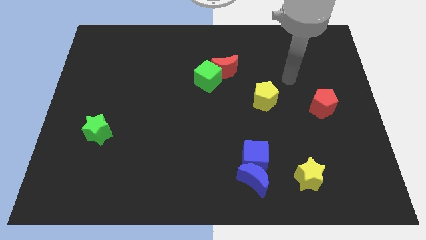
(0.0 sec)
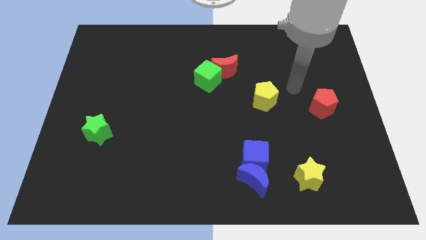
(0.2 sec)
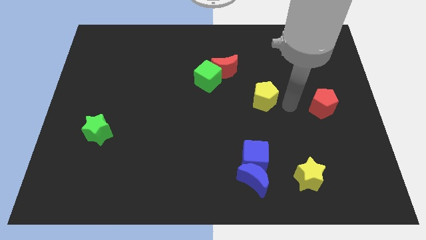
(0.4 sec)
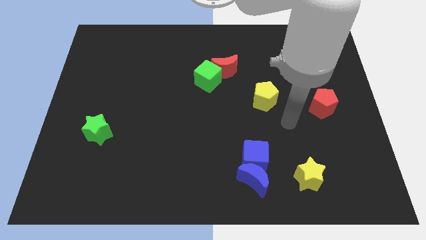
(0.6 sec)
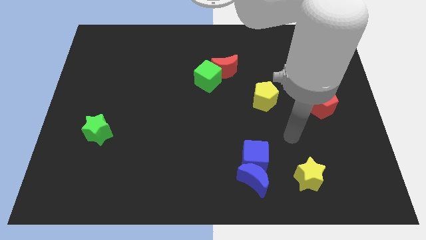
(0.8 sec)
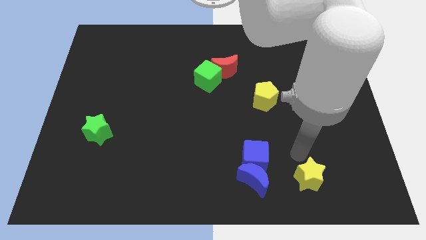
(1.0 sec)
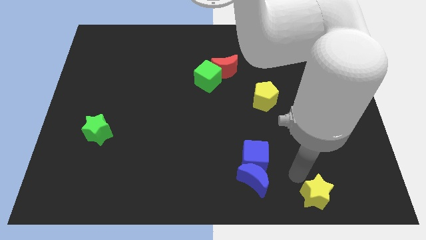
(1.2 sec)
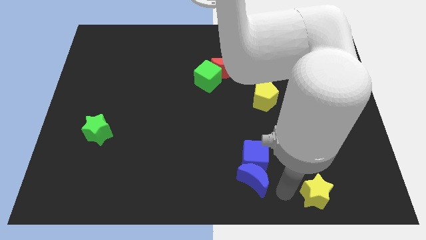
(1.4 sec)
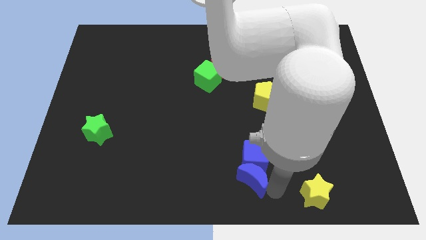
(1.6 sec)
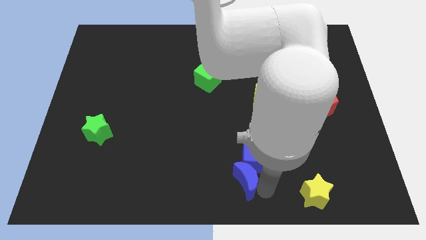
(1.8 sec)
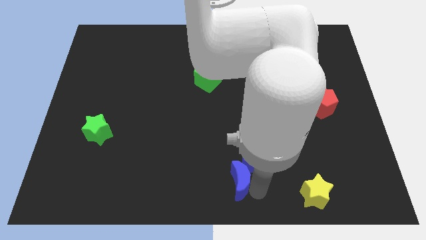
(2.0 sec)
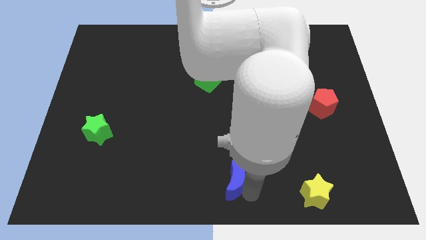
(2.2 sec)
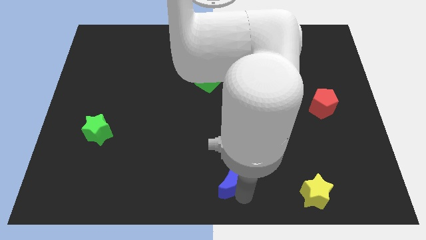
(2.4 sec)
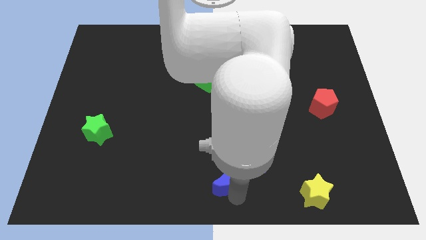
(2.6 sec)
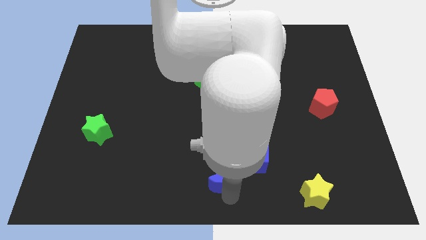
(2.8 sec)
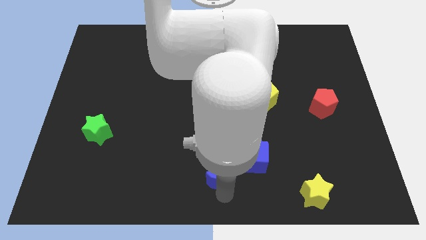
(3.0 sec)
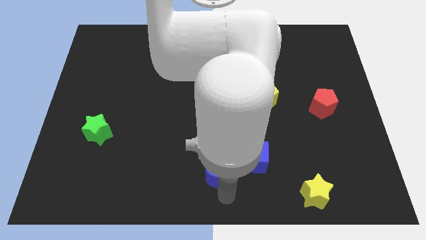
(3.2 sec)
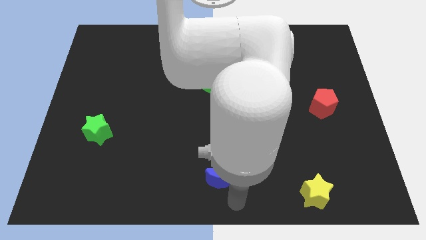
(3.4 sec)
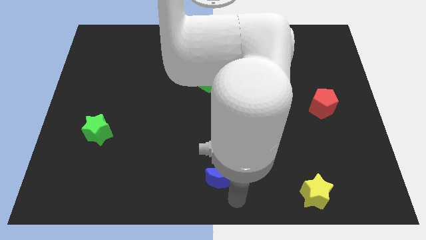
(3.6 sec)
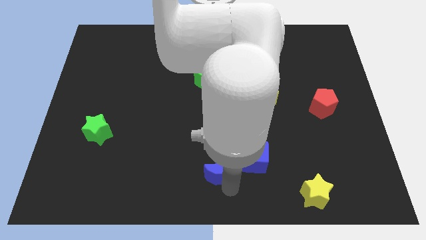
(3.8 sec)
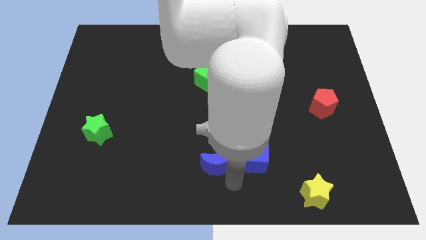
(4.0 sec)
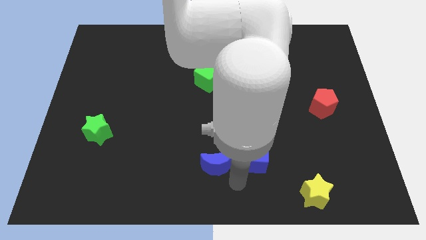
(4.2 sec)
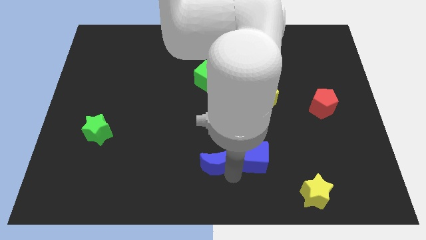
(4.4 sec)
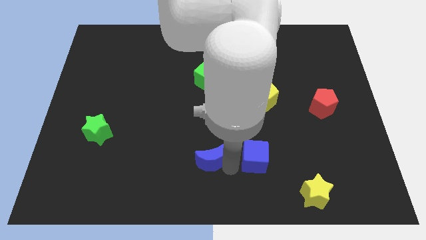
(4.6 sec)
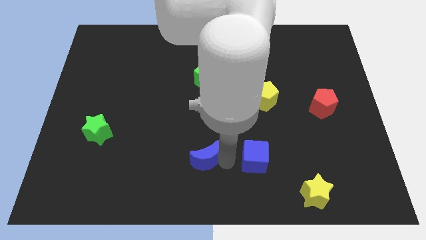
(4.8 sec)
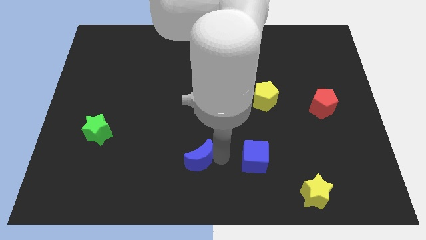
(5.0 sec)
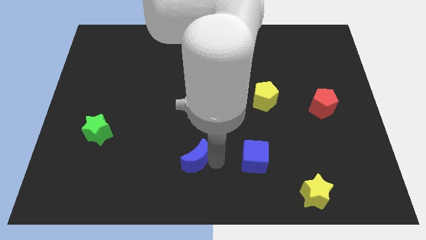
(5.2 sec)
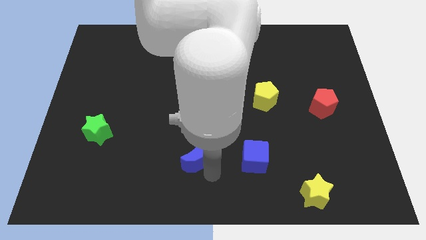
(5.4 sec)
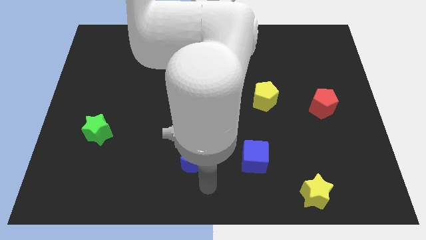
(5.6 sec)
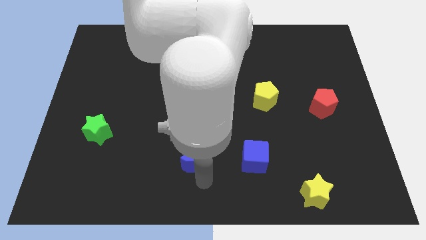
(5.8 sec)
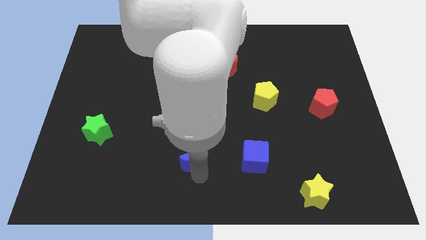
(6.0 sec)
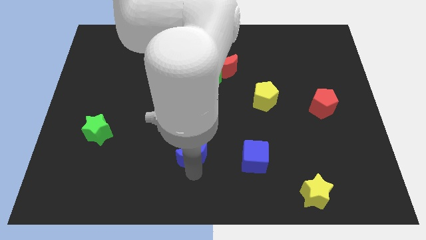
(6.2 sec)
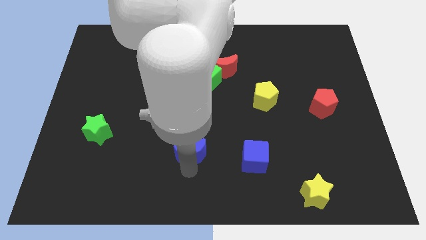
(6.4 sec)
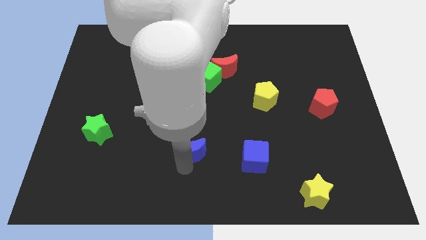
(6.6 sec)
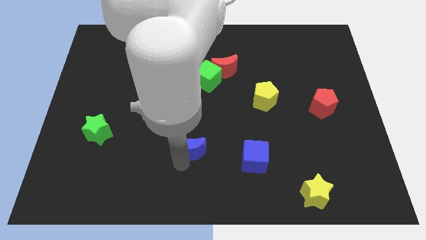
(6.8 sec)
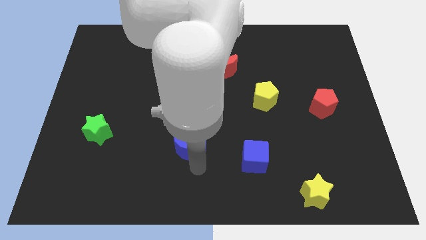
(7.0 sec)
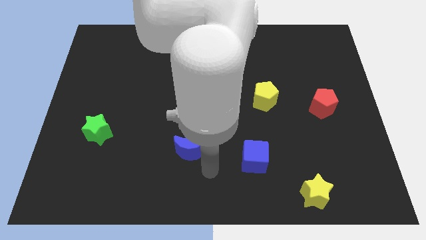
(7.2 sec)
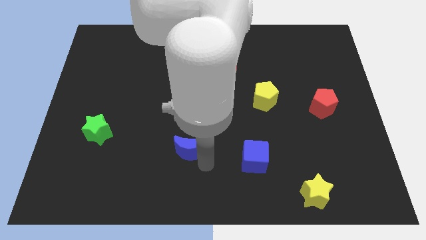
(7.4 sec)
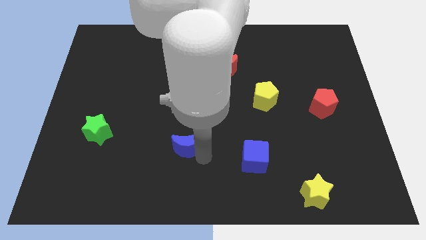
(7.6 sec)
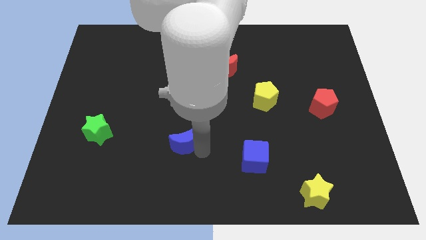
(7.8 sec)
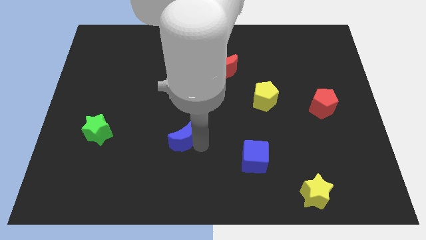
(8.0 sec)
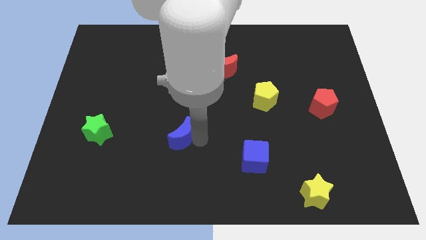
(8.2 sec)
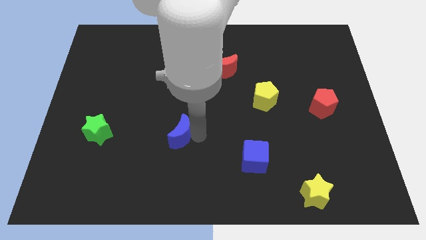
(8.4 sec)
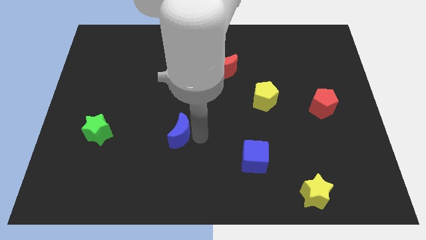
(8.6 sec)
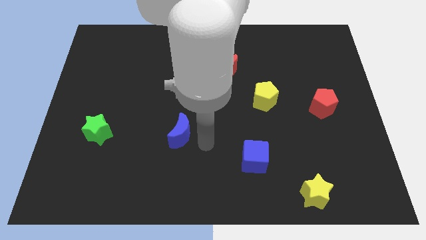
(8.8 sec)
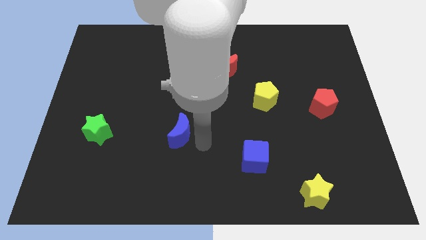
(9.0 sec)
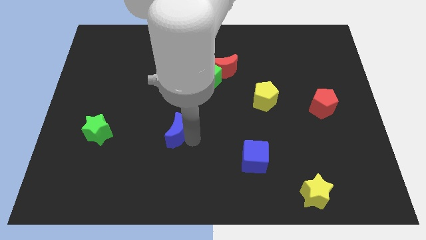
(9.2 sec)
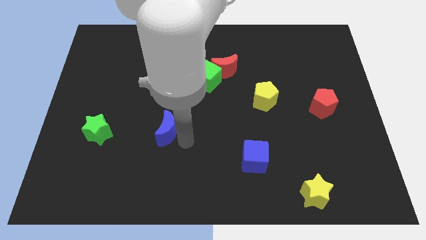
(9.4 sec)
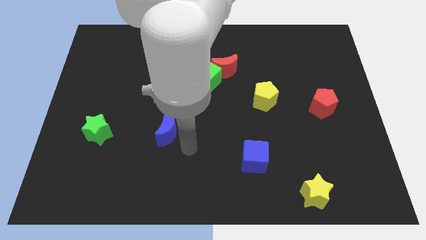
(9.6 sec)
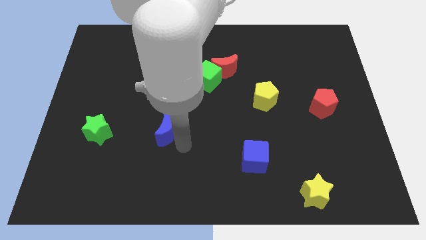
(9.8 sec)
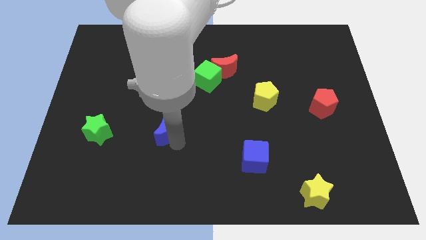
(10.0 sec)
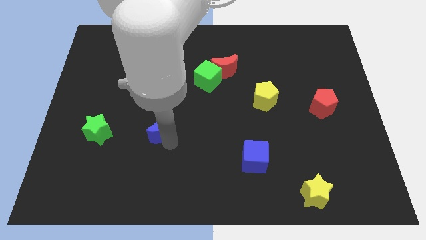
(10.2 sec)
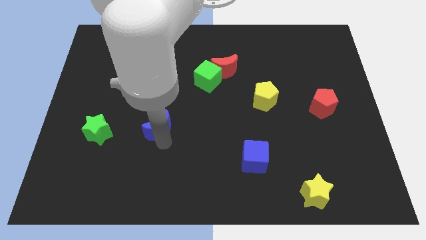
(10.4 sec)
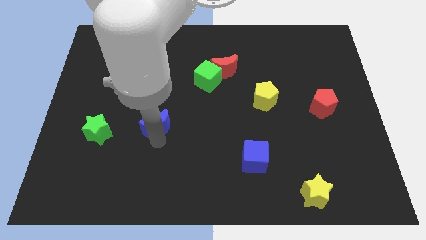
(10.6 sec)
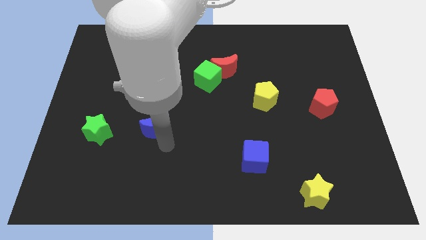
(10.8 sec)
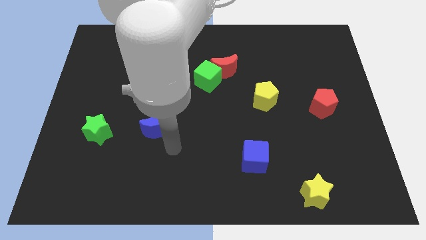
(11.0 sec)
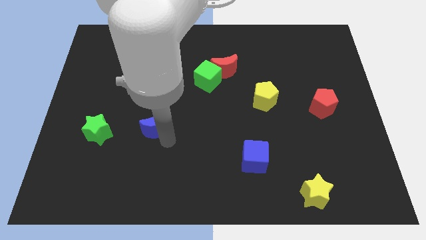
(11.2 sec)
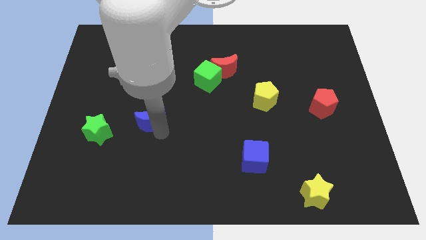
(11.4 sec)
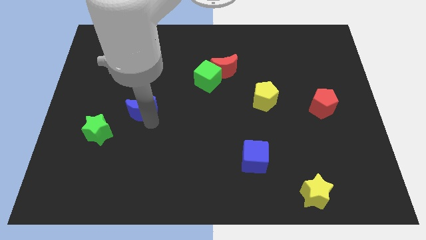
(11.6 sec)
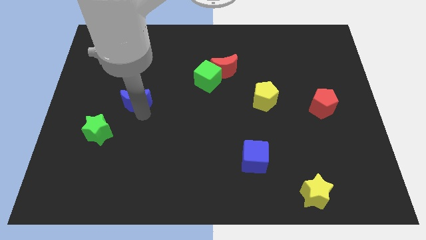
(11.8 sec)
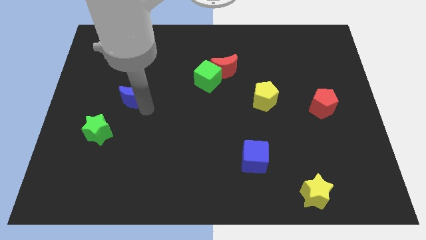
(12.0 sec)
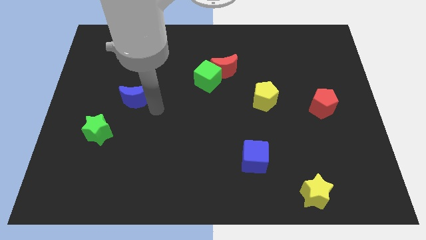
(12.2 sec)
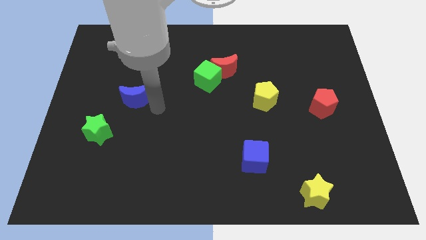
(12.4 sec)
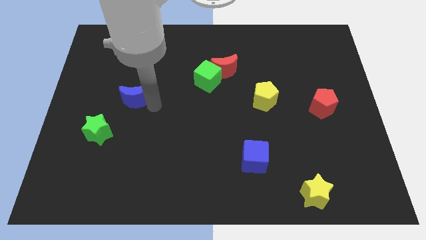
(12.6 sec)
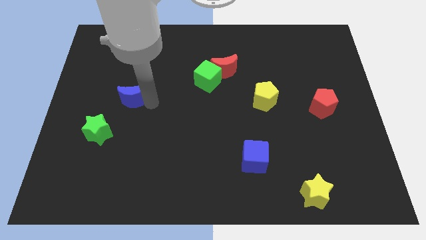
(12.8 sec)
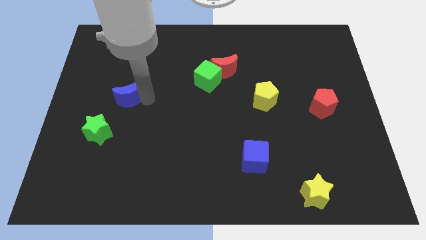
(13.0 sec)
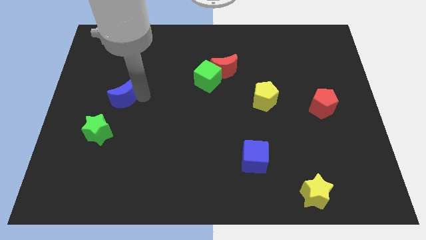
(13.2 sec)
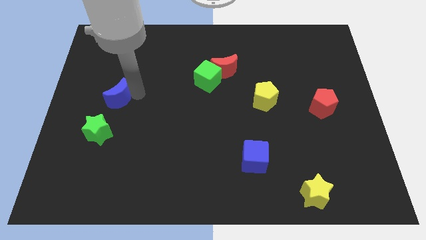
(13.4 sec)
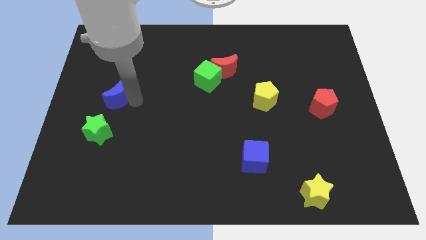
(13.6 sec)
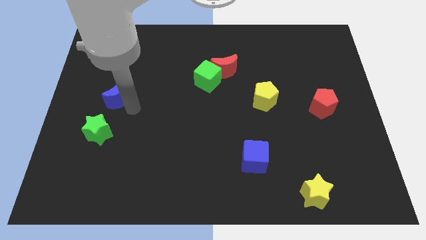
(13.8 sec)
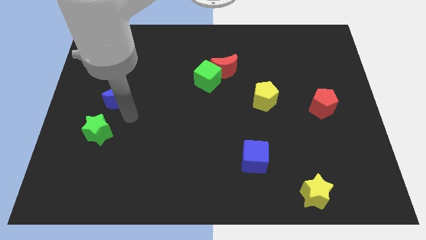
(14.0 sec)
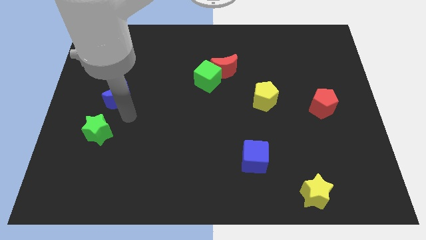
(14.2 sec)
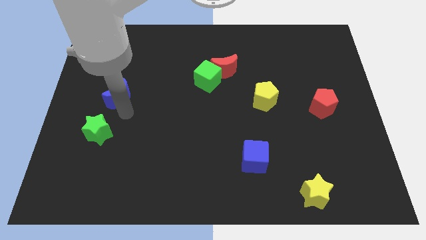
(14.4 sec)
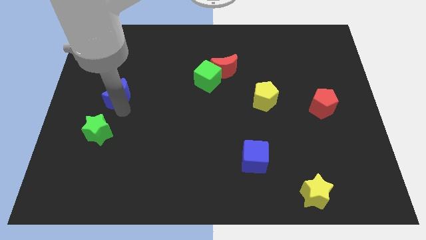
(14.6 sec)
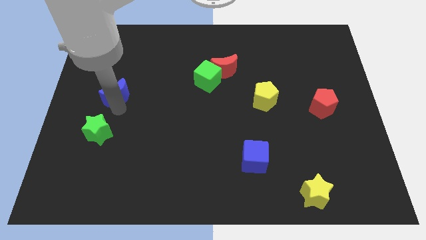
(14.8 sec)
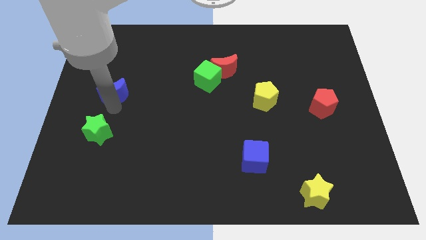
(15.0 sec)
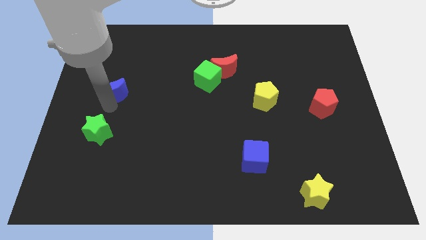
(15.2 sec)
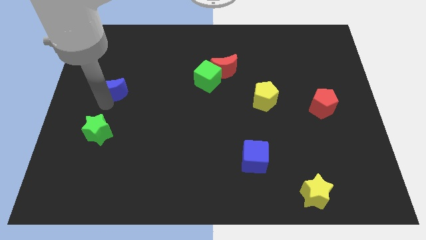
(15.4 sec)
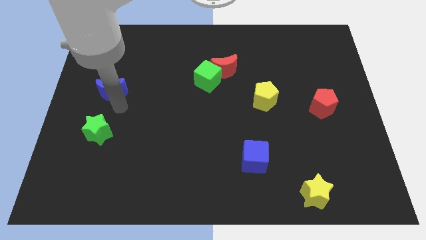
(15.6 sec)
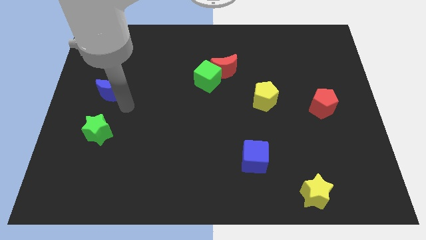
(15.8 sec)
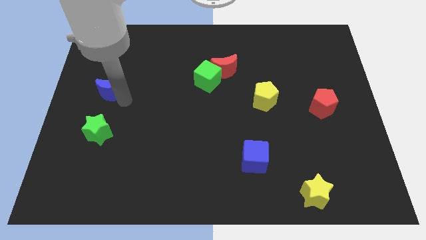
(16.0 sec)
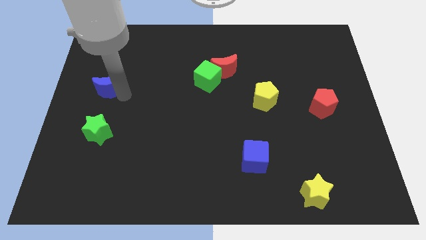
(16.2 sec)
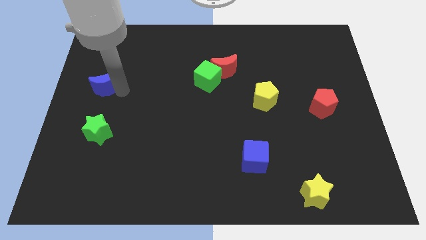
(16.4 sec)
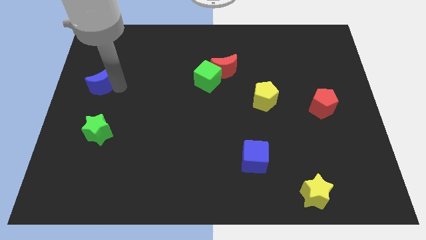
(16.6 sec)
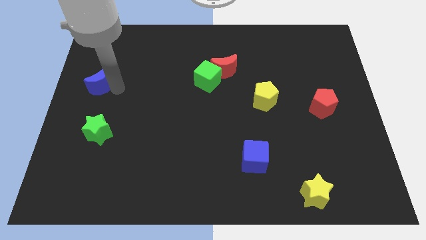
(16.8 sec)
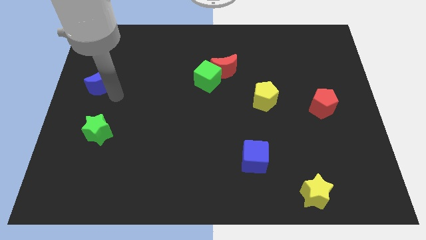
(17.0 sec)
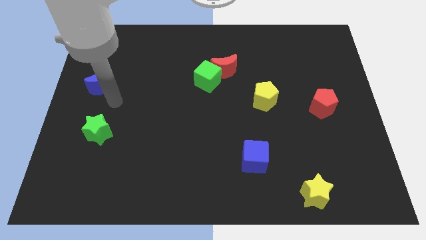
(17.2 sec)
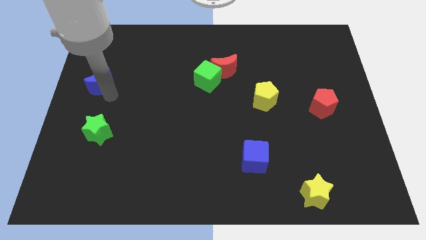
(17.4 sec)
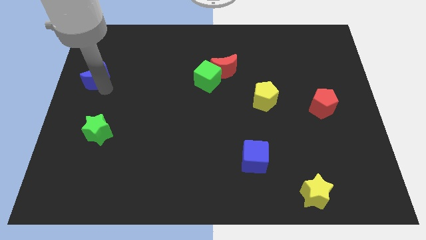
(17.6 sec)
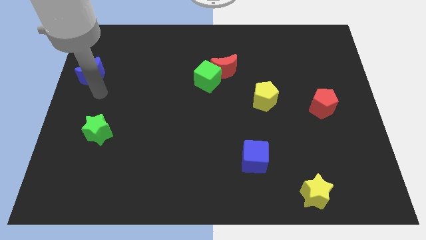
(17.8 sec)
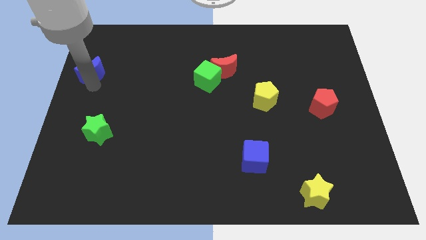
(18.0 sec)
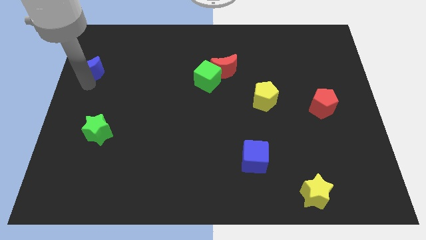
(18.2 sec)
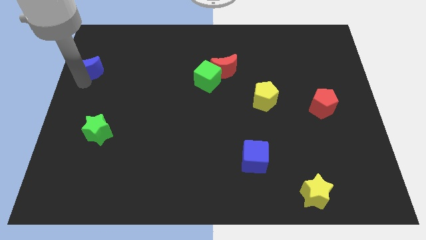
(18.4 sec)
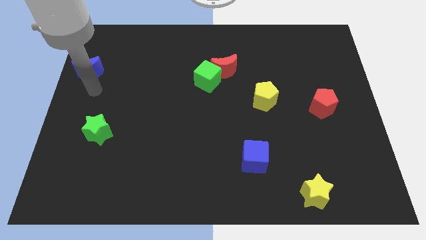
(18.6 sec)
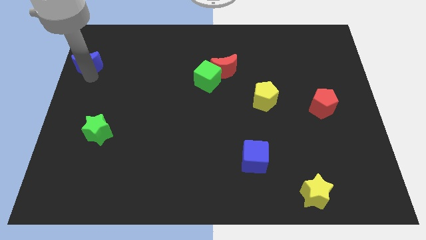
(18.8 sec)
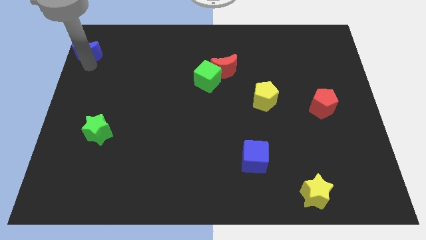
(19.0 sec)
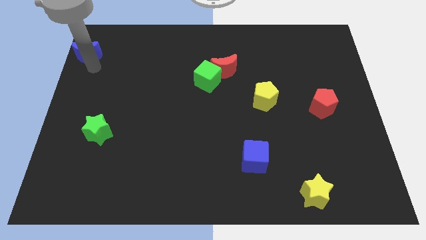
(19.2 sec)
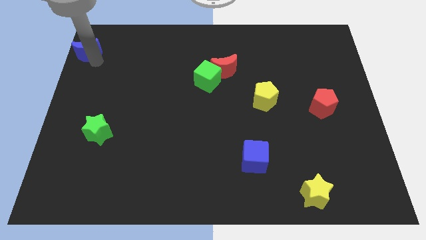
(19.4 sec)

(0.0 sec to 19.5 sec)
move the blue moon to the top left
